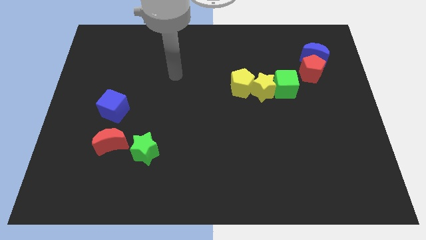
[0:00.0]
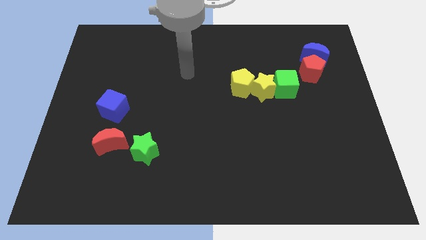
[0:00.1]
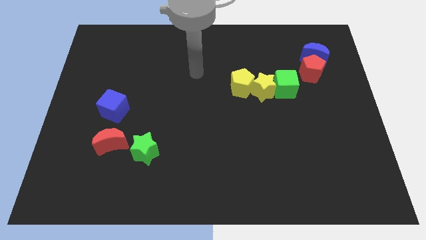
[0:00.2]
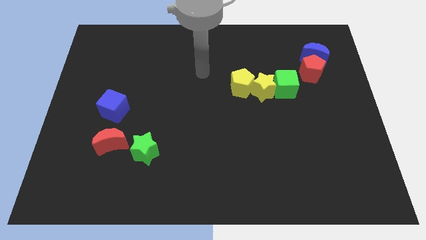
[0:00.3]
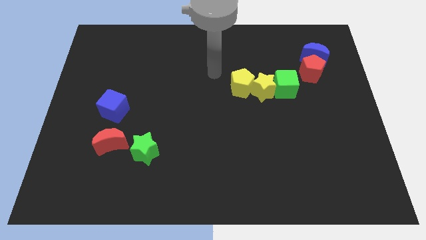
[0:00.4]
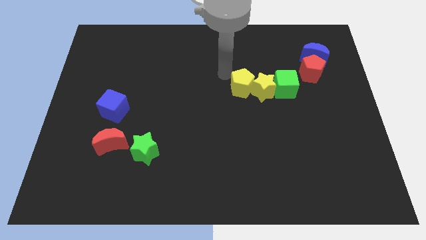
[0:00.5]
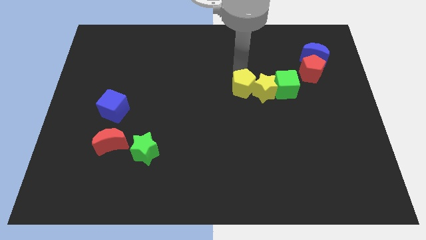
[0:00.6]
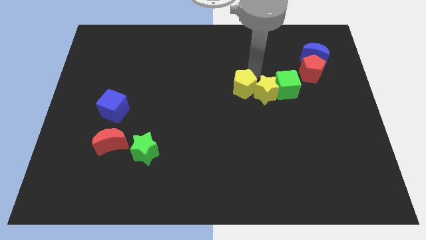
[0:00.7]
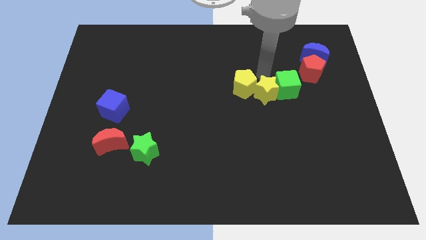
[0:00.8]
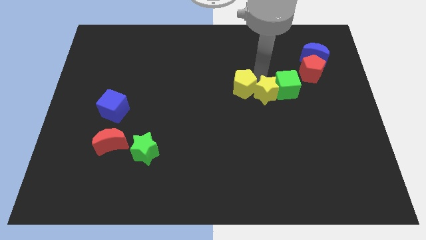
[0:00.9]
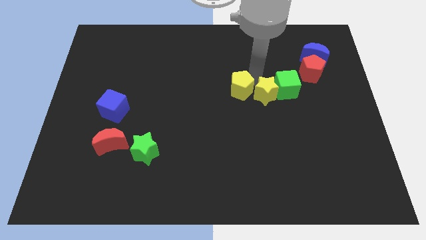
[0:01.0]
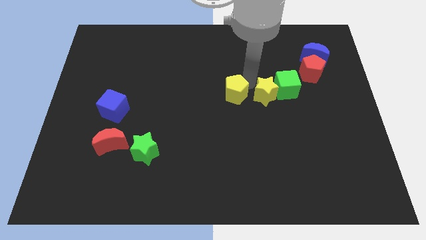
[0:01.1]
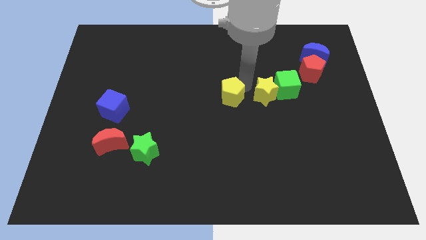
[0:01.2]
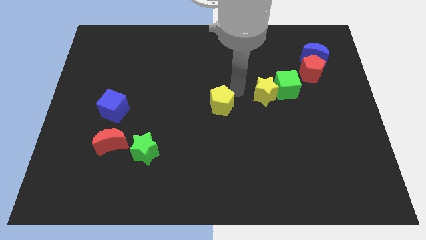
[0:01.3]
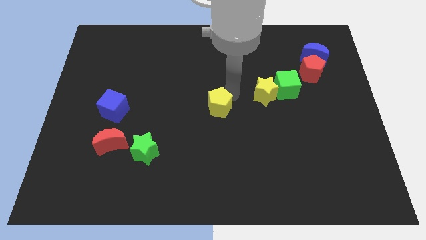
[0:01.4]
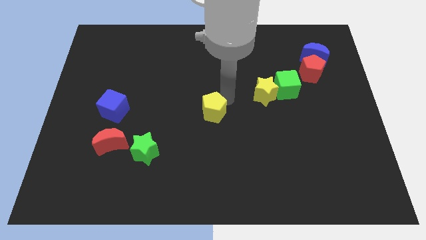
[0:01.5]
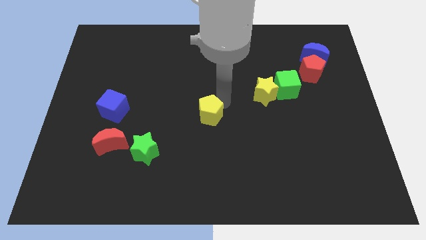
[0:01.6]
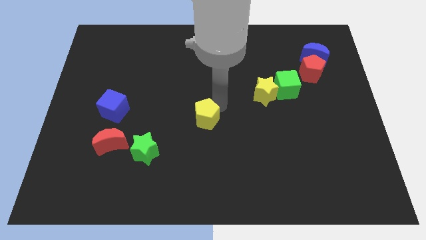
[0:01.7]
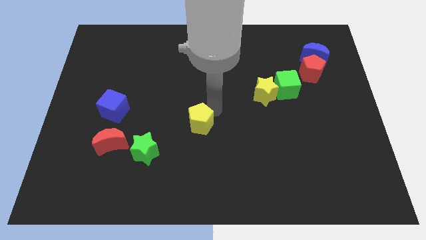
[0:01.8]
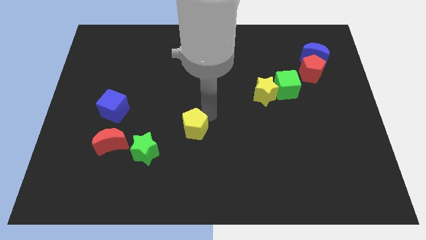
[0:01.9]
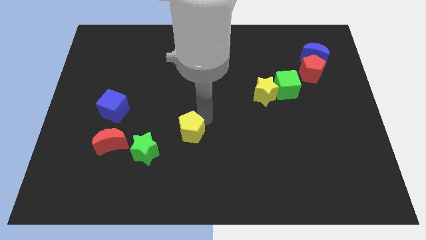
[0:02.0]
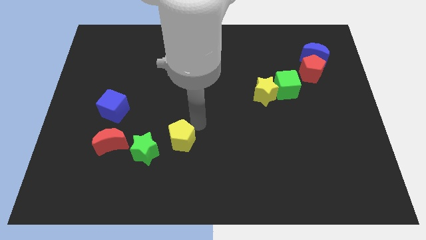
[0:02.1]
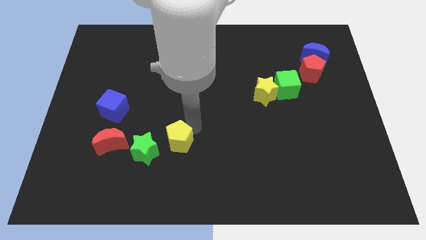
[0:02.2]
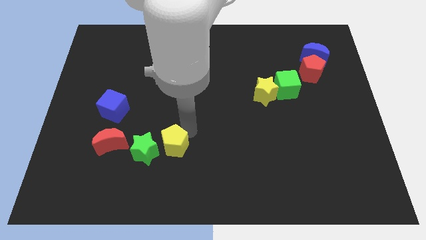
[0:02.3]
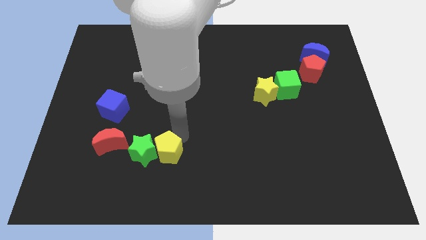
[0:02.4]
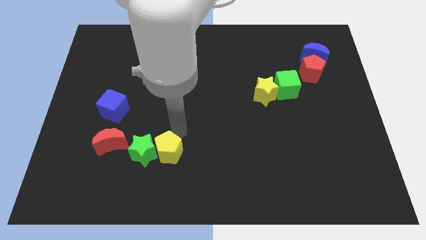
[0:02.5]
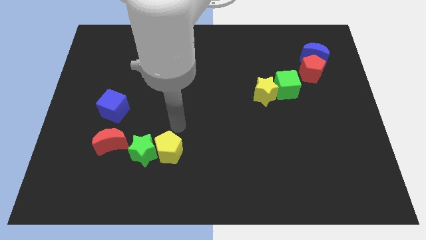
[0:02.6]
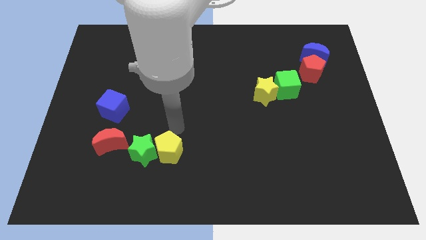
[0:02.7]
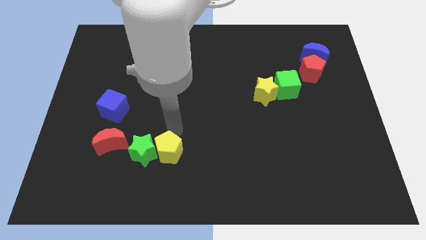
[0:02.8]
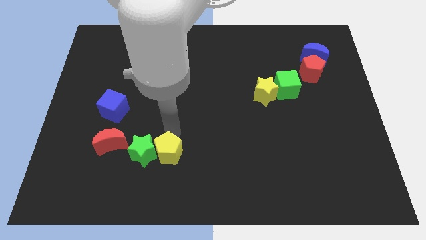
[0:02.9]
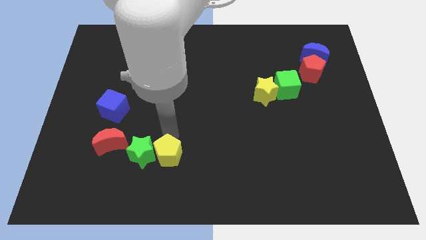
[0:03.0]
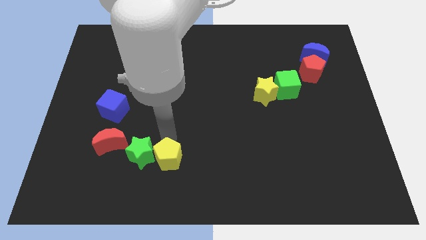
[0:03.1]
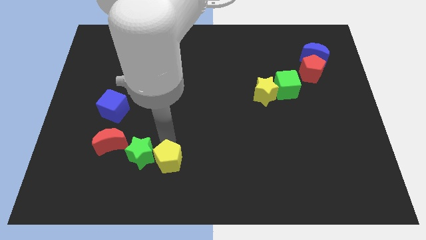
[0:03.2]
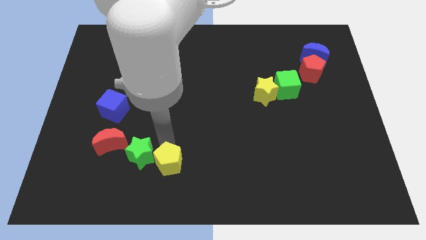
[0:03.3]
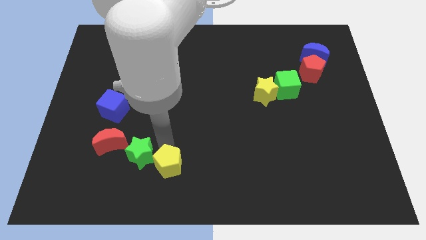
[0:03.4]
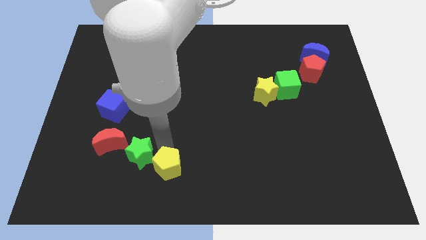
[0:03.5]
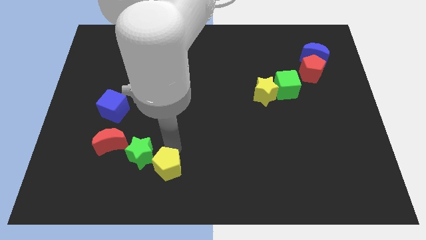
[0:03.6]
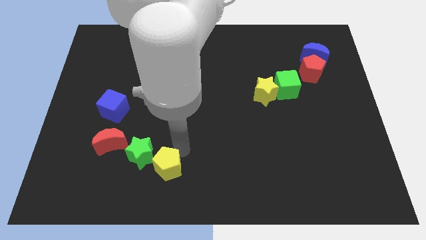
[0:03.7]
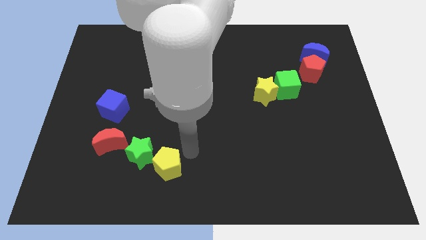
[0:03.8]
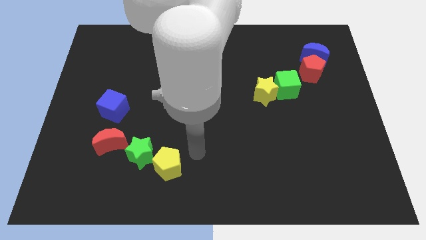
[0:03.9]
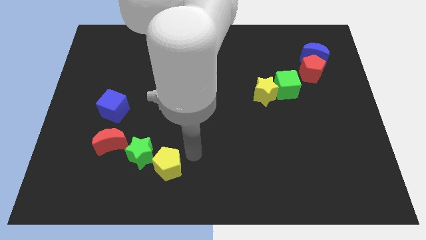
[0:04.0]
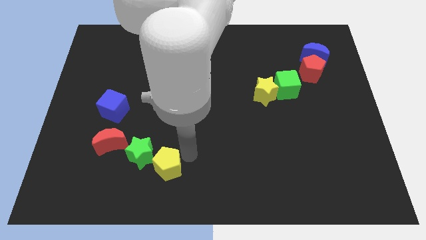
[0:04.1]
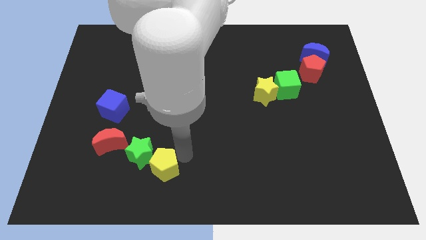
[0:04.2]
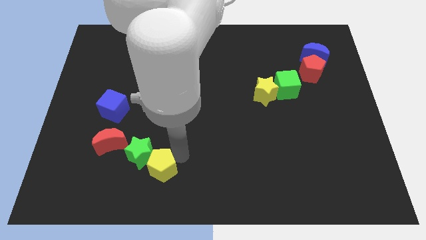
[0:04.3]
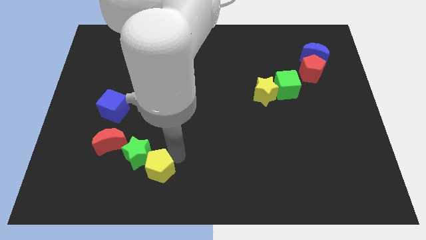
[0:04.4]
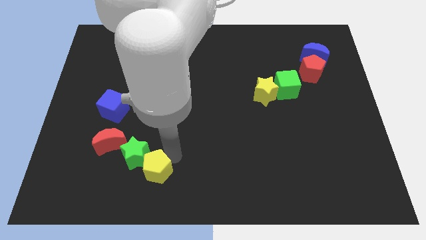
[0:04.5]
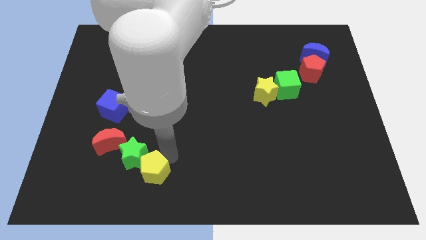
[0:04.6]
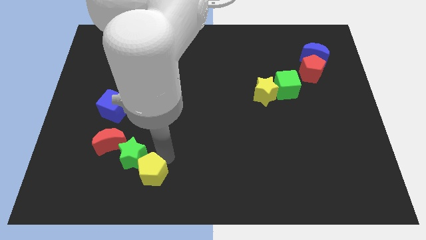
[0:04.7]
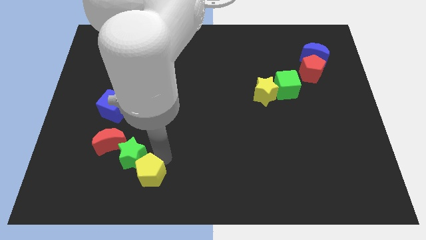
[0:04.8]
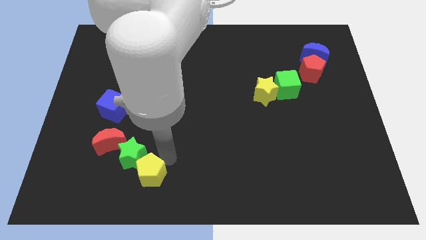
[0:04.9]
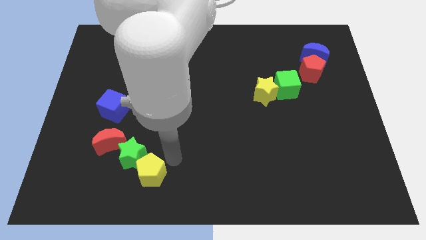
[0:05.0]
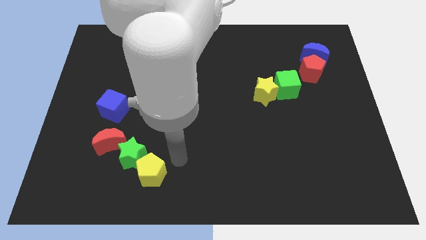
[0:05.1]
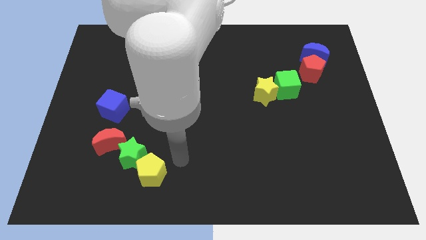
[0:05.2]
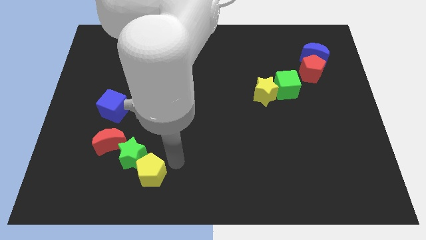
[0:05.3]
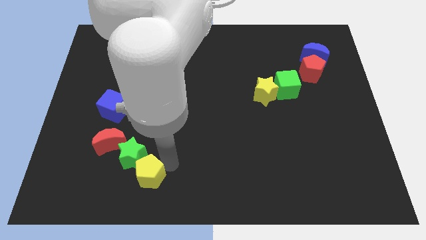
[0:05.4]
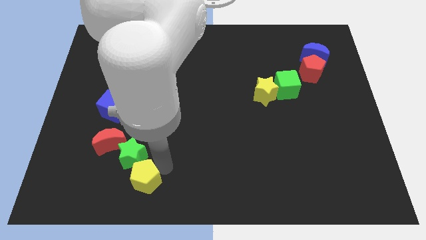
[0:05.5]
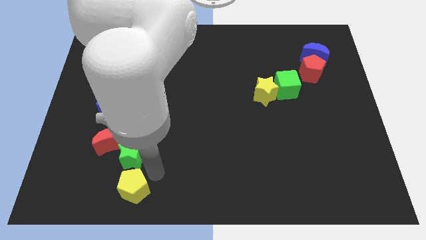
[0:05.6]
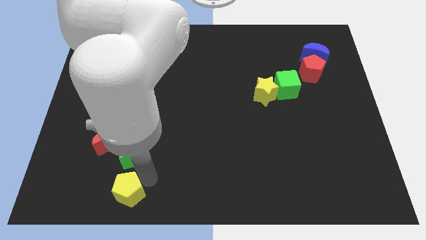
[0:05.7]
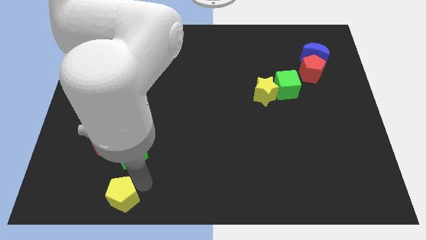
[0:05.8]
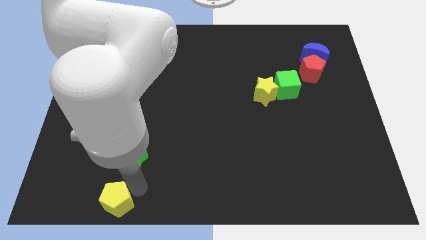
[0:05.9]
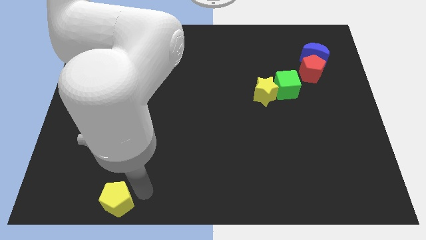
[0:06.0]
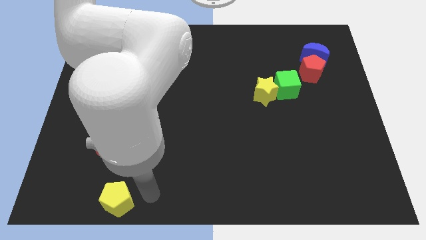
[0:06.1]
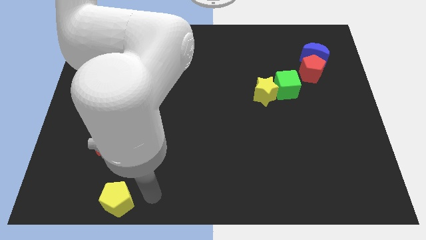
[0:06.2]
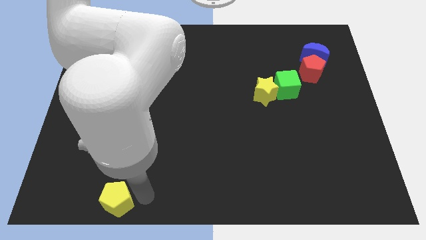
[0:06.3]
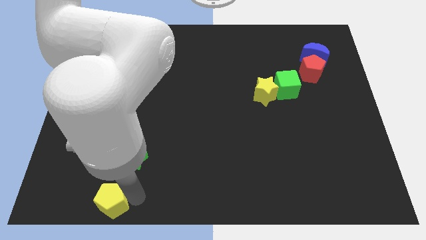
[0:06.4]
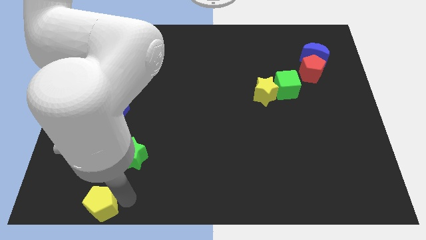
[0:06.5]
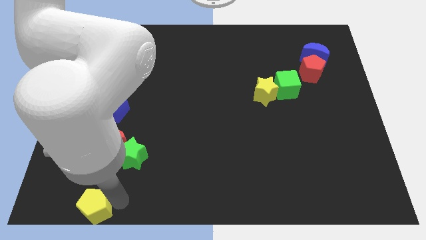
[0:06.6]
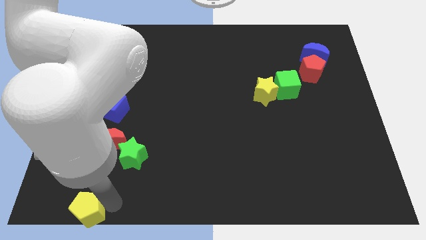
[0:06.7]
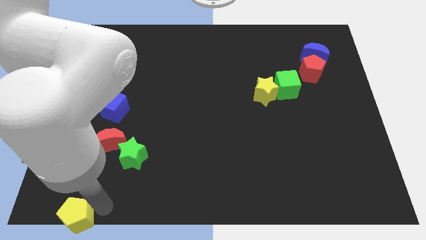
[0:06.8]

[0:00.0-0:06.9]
move the yellow pentagon to the bottom left corner
